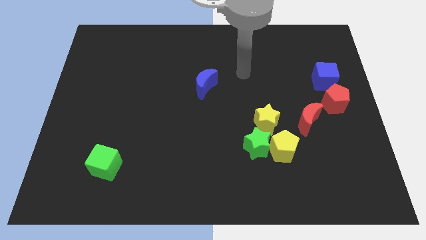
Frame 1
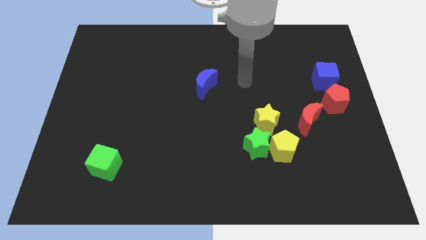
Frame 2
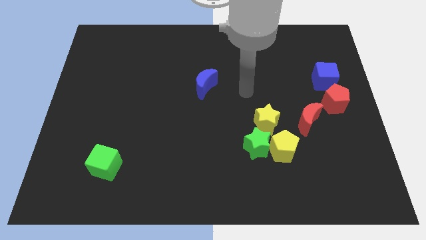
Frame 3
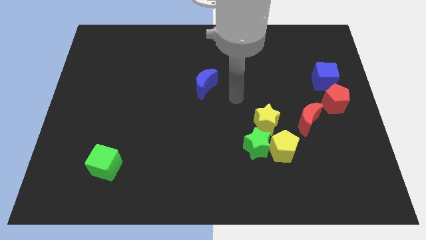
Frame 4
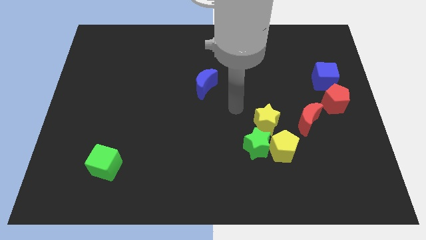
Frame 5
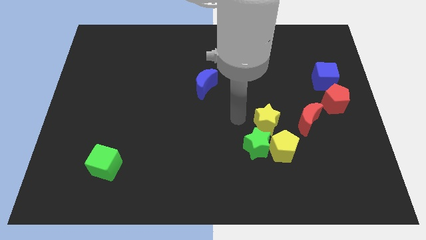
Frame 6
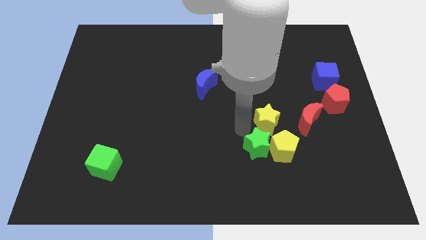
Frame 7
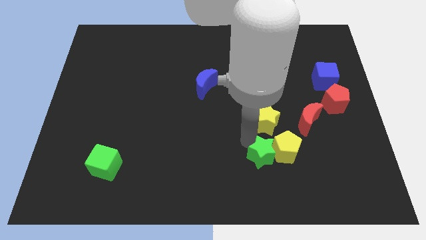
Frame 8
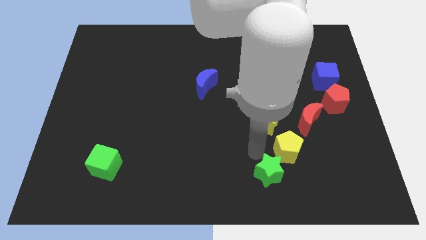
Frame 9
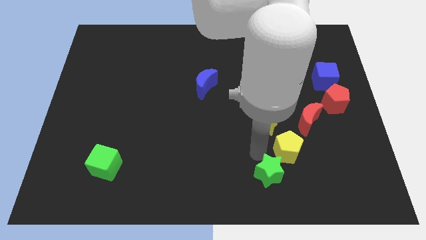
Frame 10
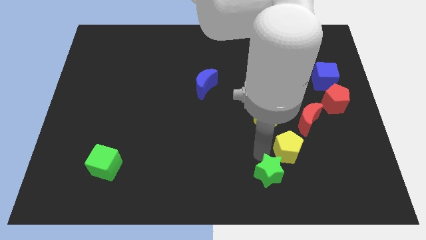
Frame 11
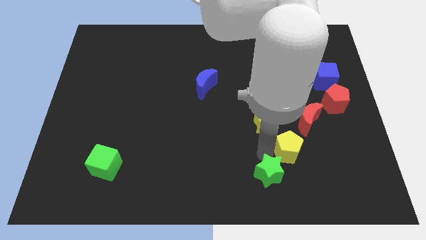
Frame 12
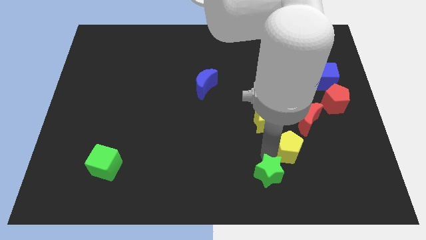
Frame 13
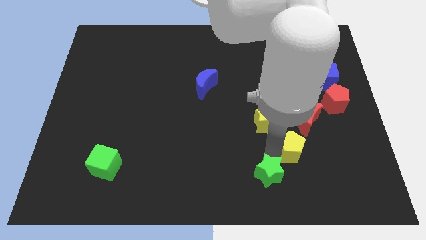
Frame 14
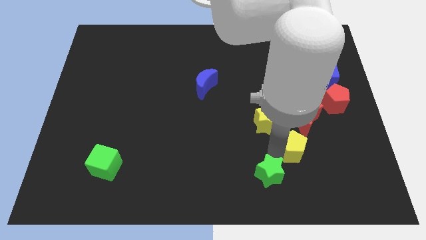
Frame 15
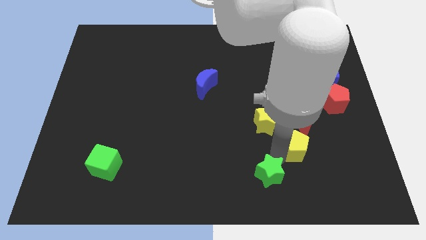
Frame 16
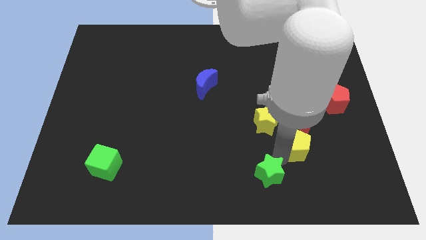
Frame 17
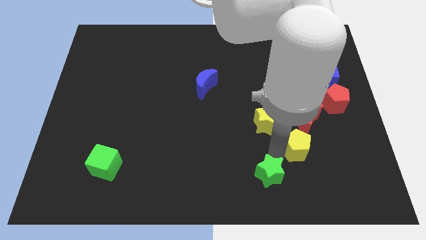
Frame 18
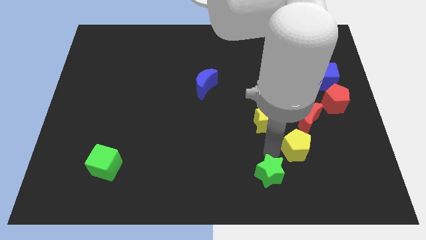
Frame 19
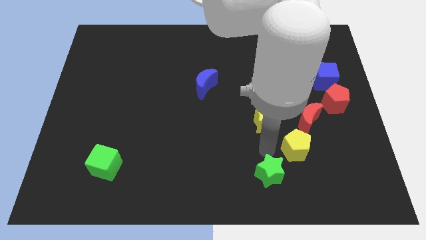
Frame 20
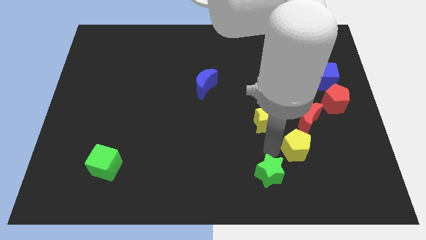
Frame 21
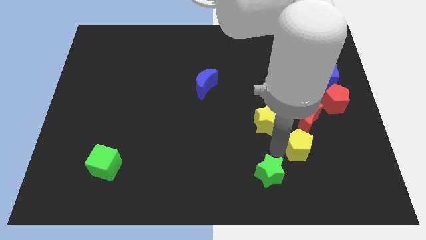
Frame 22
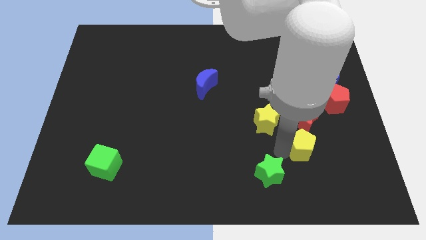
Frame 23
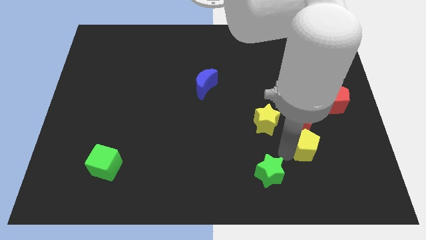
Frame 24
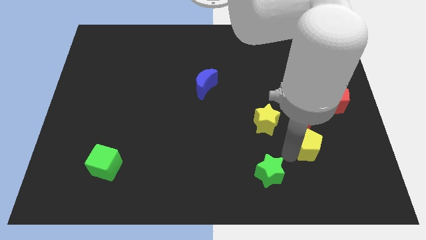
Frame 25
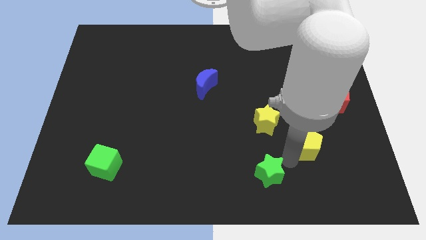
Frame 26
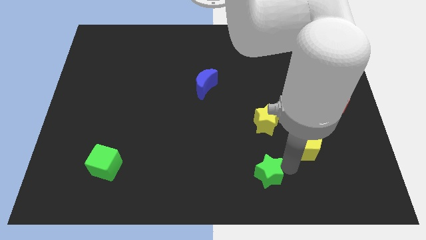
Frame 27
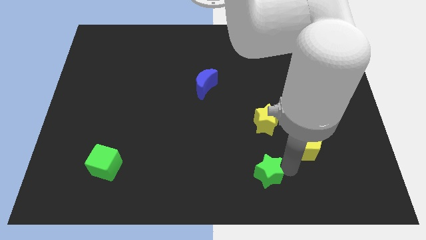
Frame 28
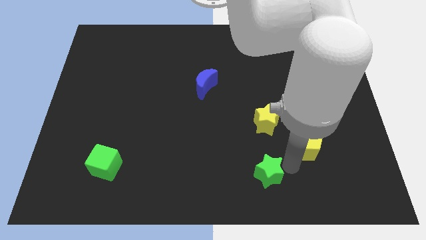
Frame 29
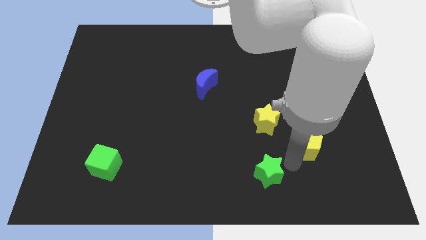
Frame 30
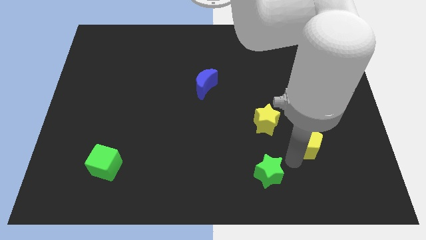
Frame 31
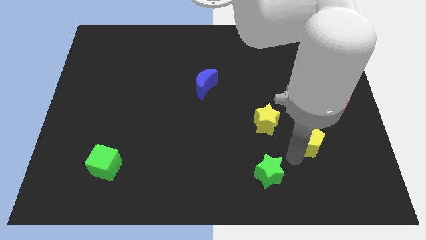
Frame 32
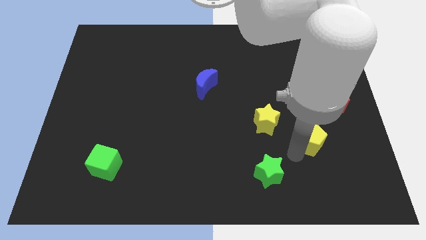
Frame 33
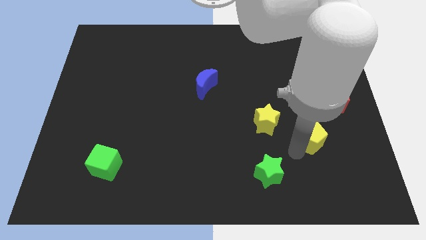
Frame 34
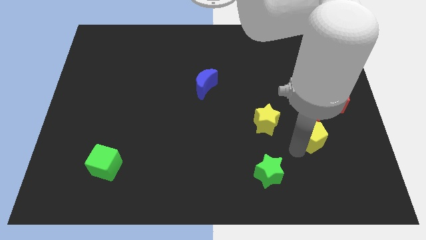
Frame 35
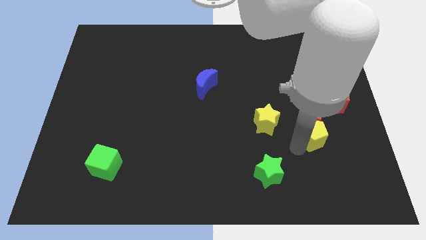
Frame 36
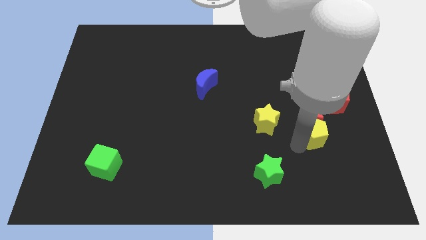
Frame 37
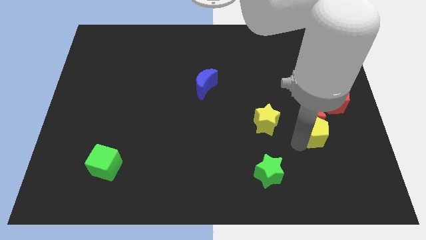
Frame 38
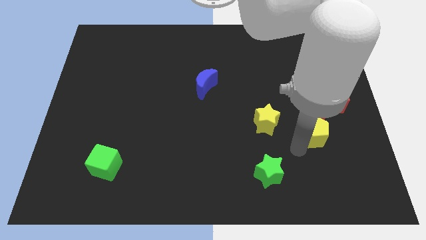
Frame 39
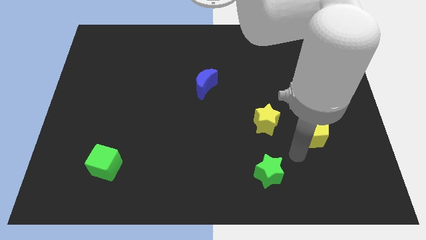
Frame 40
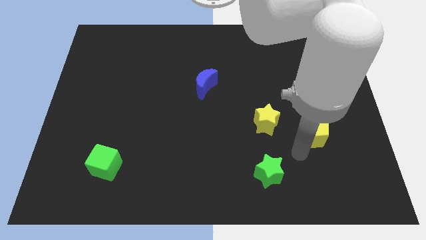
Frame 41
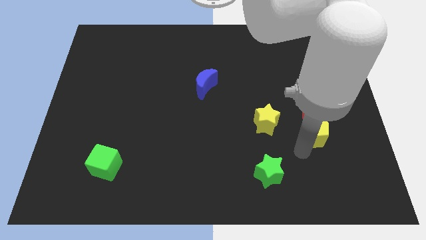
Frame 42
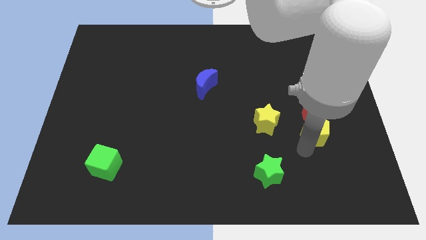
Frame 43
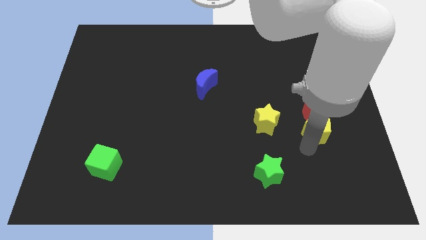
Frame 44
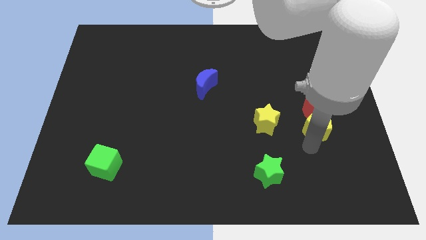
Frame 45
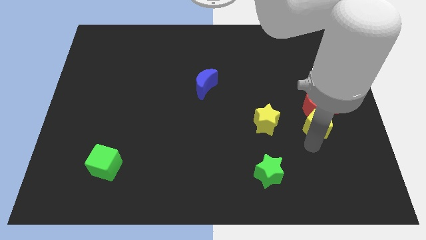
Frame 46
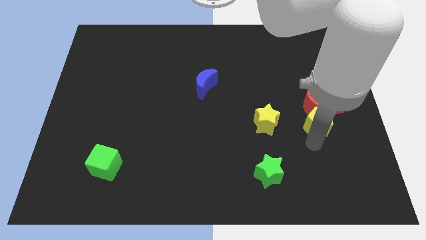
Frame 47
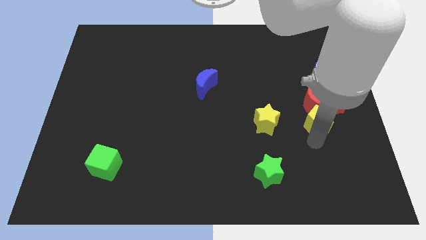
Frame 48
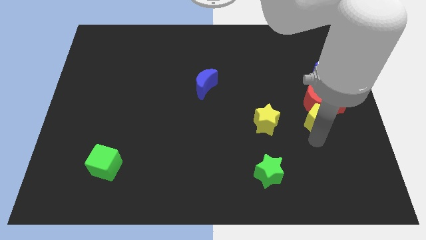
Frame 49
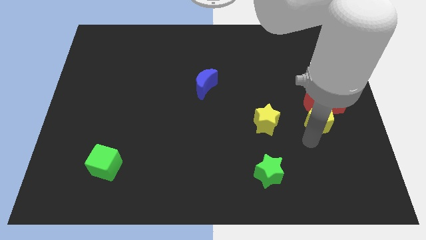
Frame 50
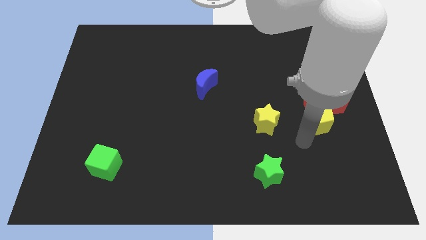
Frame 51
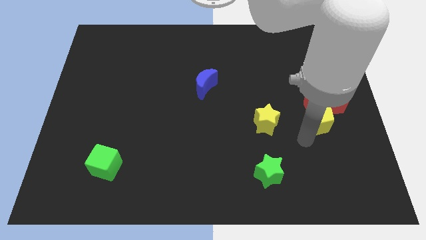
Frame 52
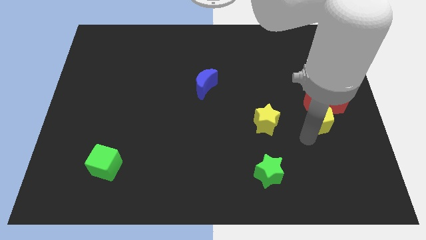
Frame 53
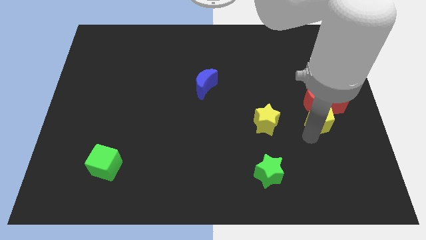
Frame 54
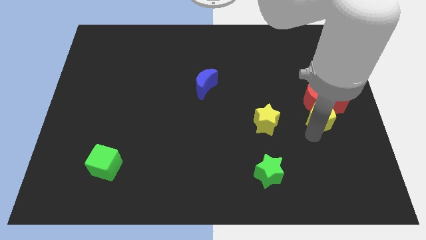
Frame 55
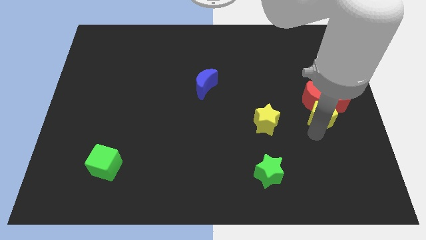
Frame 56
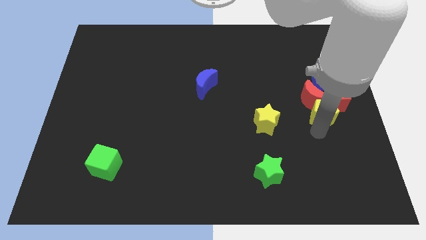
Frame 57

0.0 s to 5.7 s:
slide the yellow pentagon close to the red pentagon

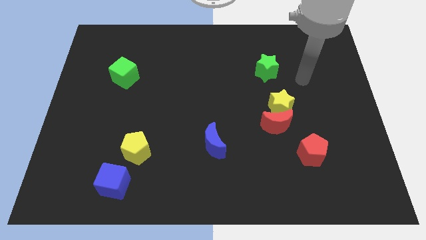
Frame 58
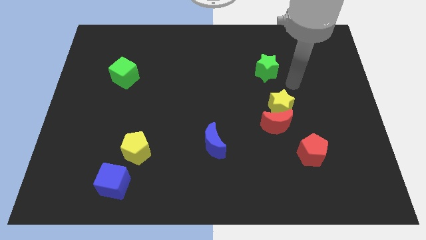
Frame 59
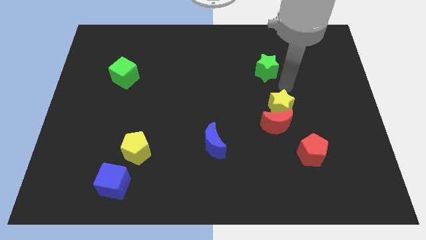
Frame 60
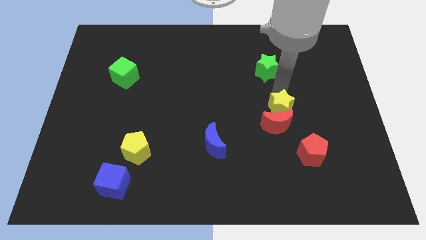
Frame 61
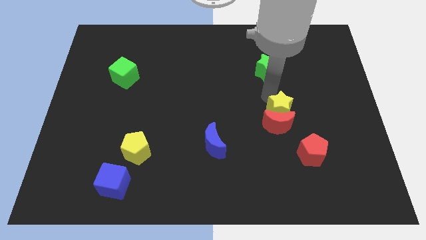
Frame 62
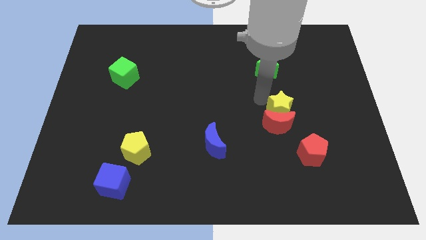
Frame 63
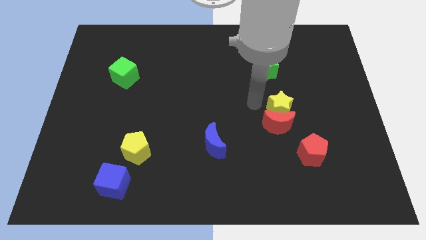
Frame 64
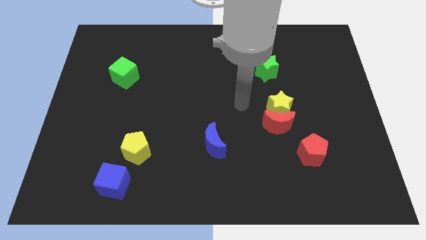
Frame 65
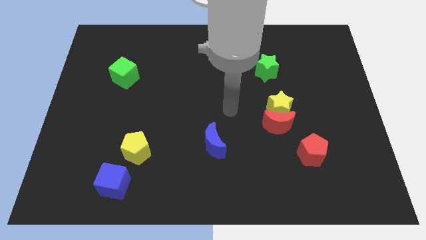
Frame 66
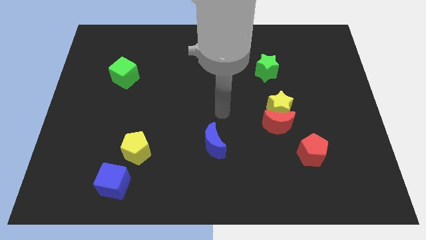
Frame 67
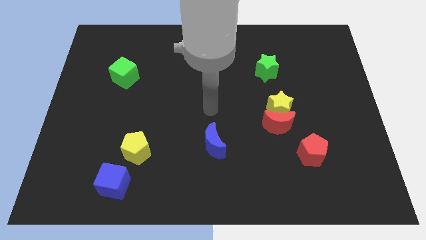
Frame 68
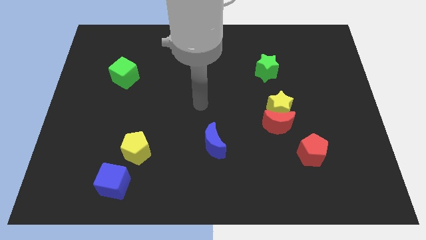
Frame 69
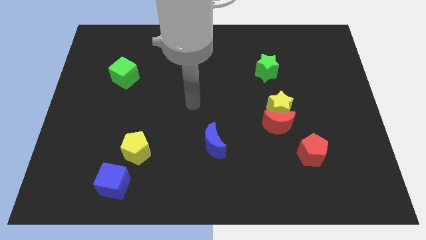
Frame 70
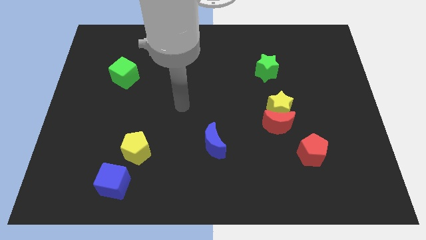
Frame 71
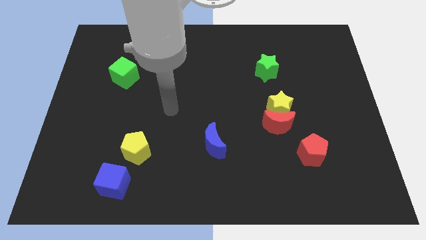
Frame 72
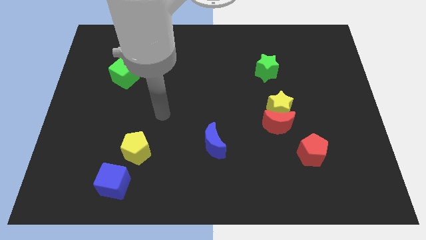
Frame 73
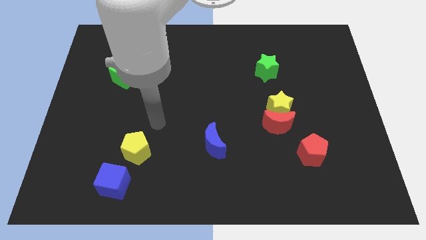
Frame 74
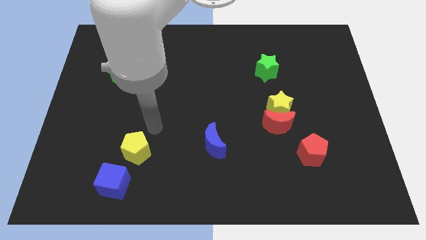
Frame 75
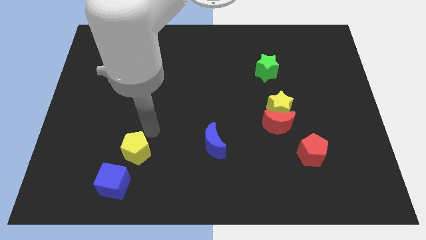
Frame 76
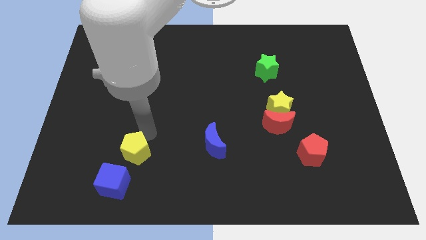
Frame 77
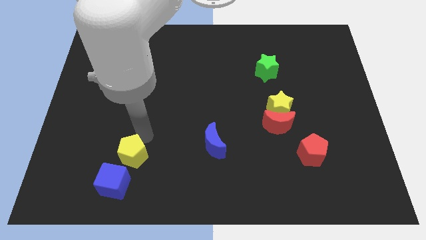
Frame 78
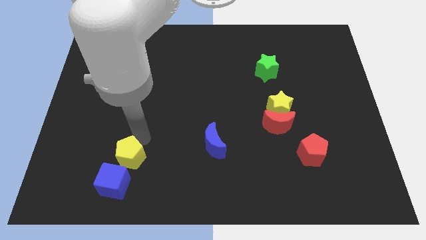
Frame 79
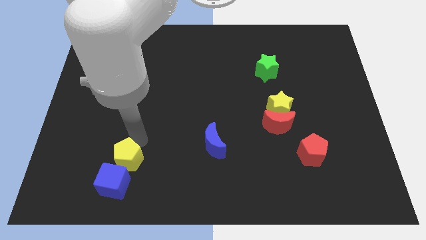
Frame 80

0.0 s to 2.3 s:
move the yellow pentagon to the blue cube

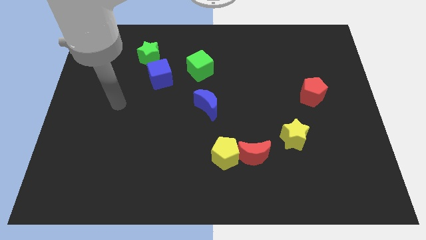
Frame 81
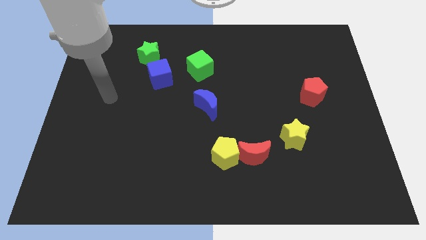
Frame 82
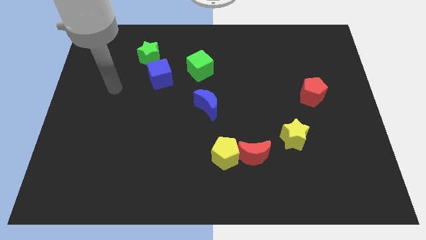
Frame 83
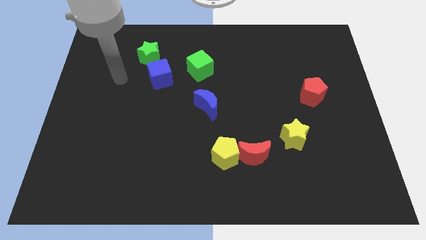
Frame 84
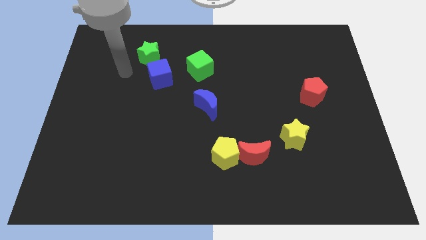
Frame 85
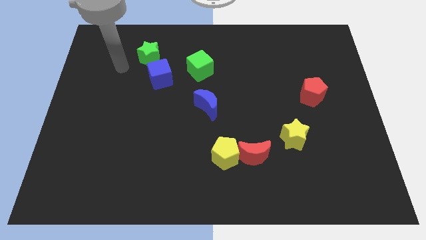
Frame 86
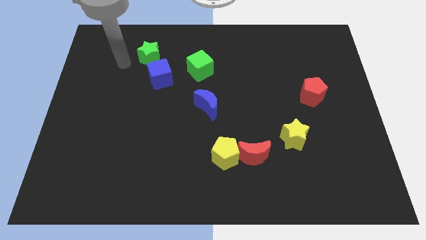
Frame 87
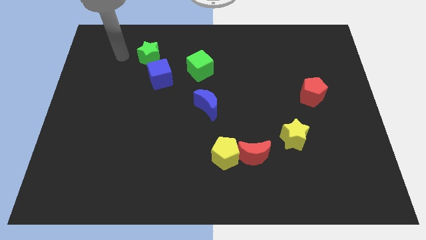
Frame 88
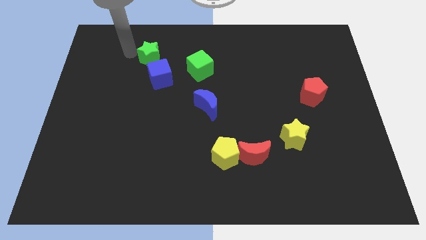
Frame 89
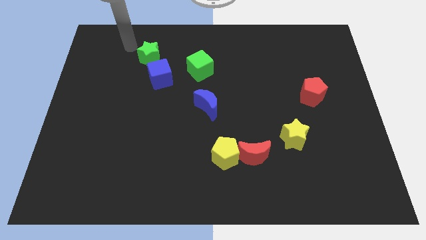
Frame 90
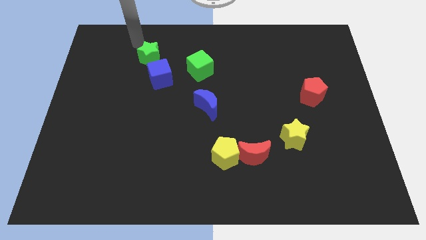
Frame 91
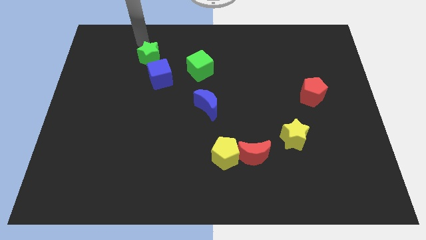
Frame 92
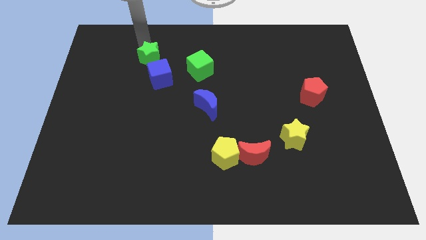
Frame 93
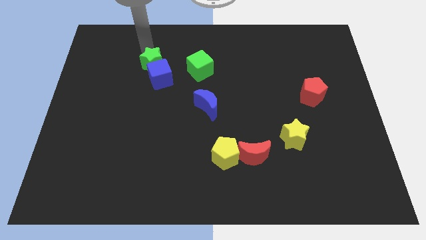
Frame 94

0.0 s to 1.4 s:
move the green star to the blue cube
